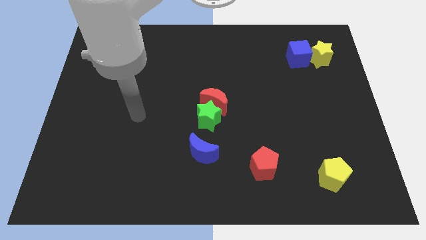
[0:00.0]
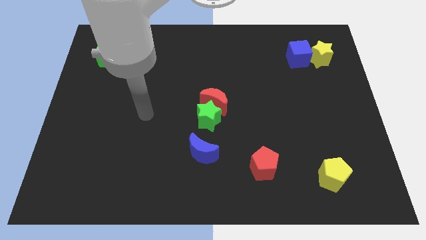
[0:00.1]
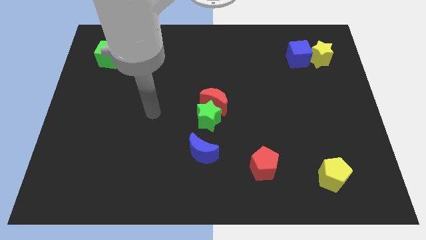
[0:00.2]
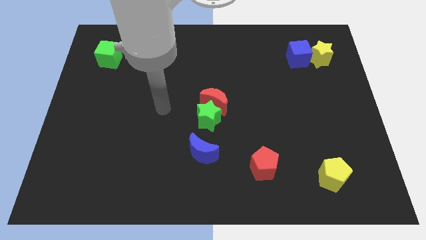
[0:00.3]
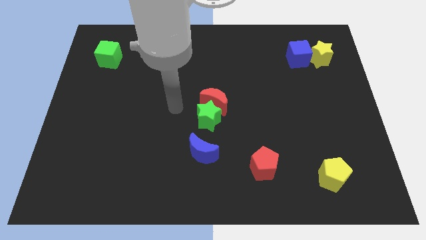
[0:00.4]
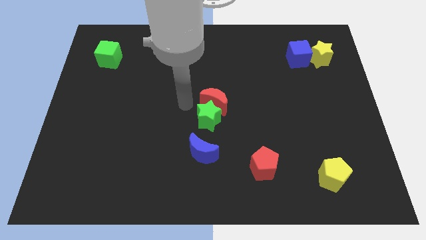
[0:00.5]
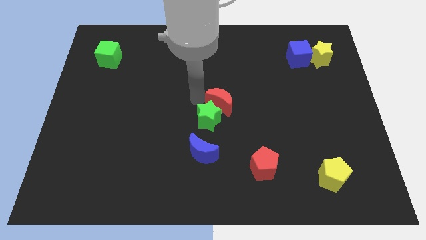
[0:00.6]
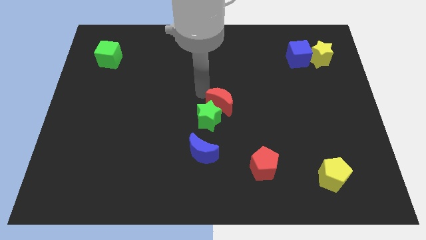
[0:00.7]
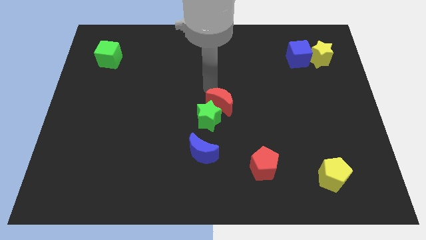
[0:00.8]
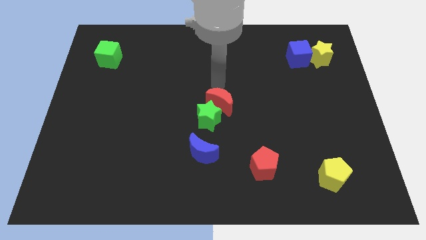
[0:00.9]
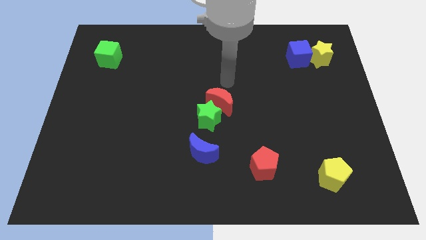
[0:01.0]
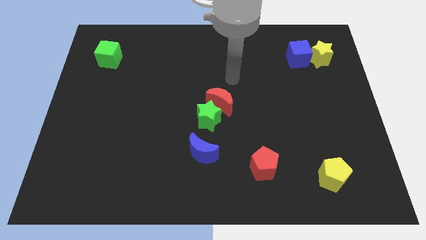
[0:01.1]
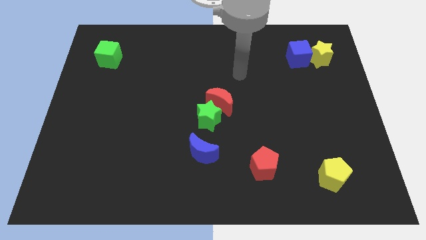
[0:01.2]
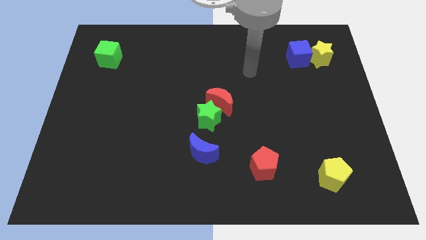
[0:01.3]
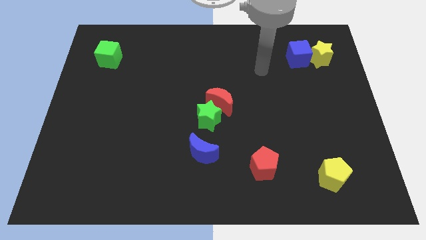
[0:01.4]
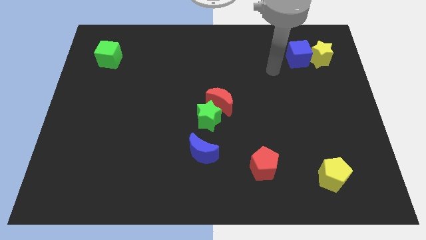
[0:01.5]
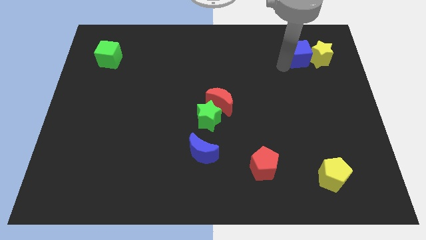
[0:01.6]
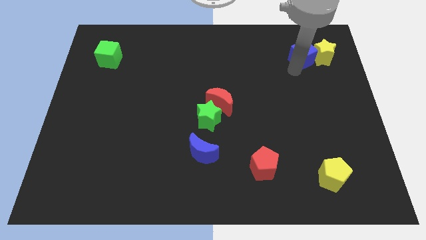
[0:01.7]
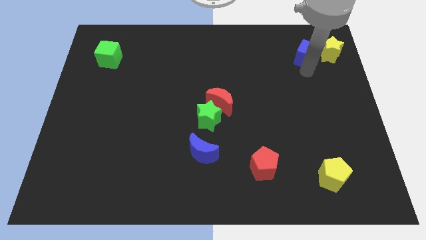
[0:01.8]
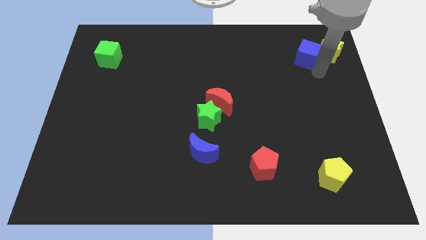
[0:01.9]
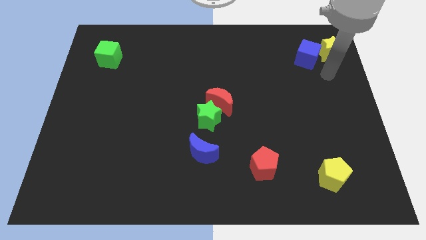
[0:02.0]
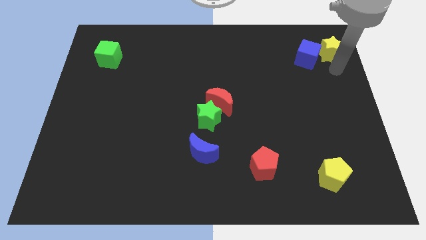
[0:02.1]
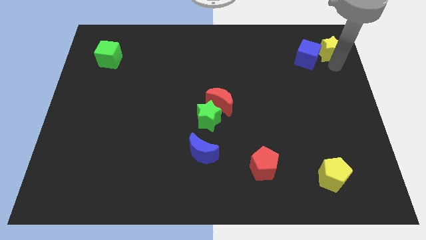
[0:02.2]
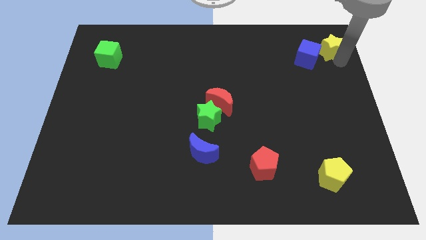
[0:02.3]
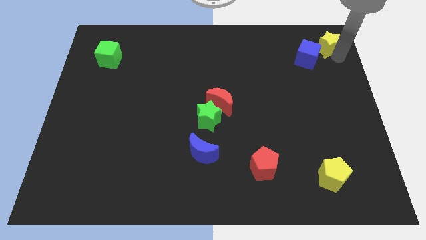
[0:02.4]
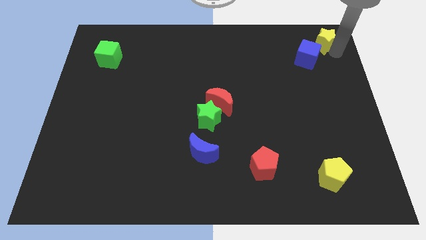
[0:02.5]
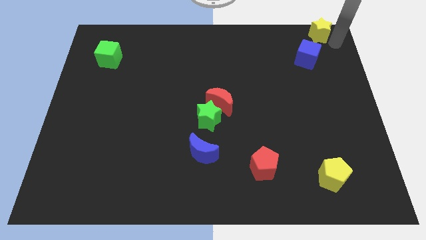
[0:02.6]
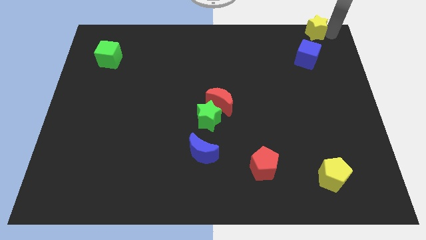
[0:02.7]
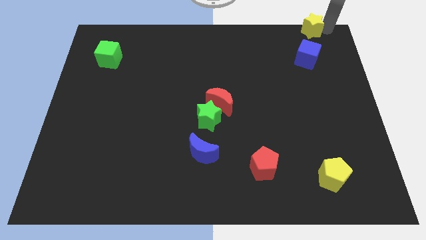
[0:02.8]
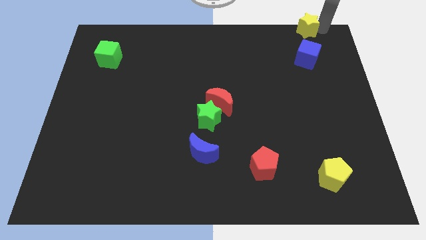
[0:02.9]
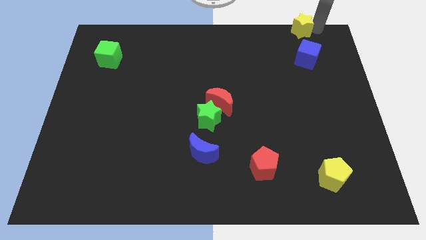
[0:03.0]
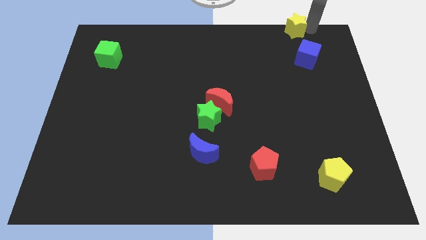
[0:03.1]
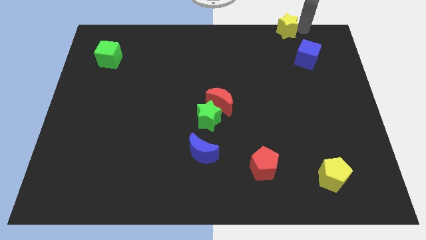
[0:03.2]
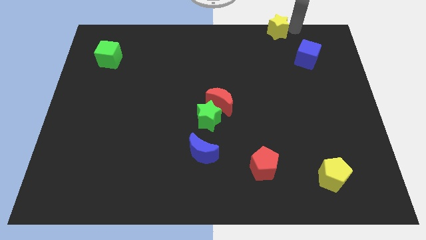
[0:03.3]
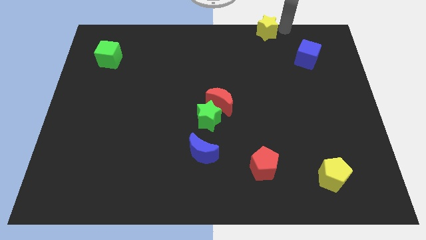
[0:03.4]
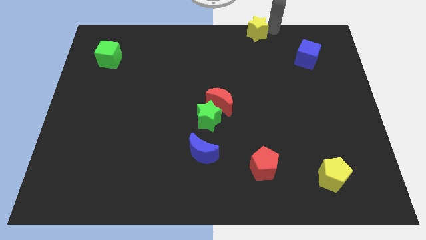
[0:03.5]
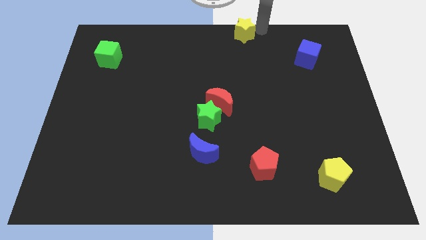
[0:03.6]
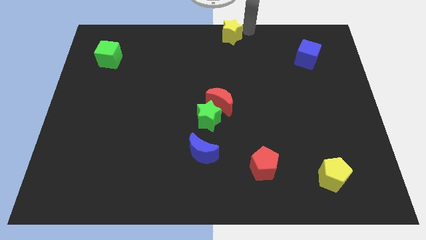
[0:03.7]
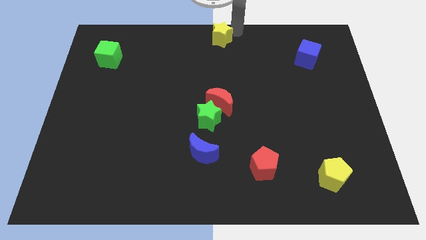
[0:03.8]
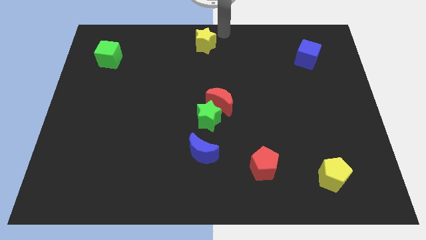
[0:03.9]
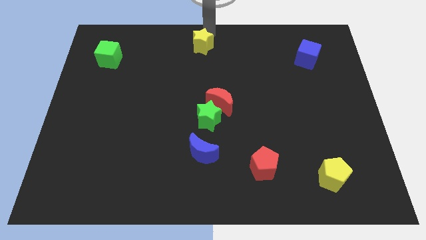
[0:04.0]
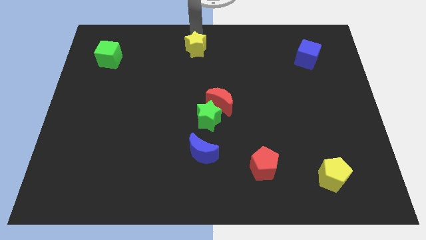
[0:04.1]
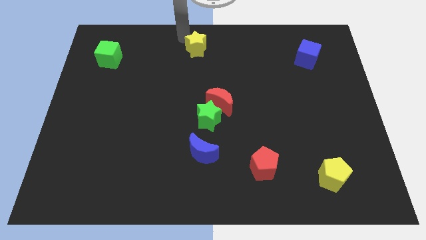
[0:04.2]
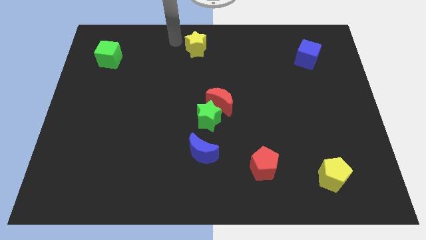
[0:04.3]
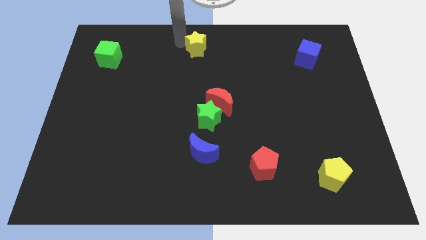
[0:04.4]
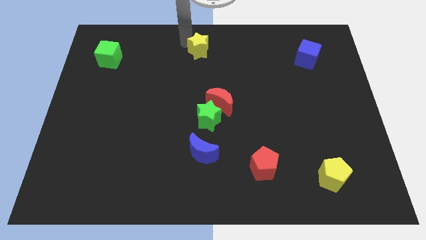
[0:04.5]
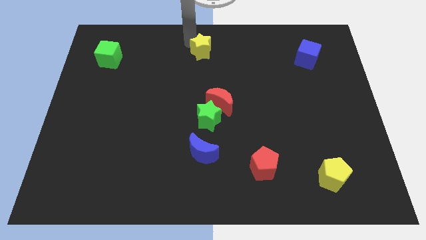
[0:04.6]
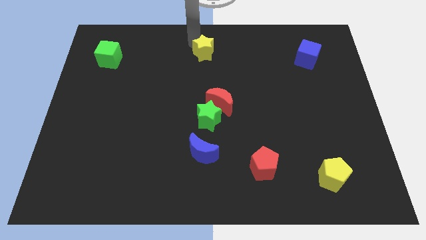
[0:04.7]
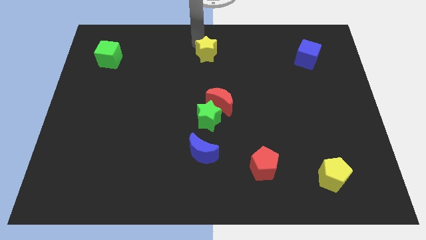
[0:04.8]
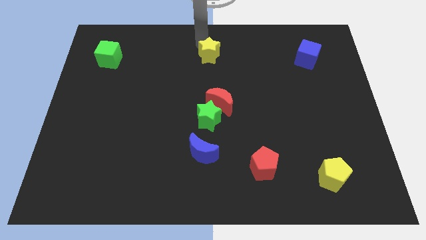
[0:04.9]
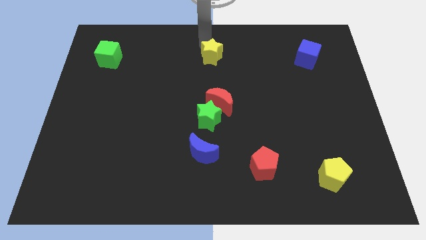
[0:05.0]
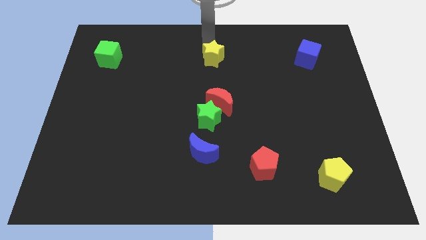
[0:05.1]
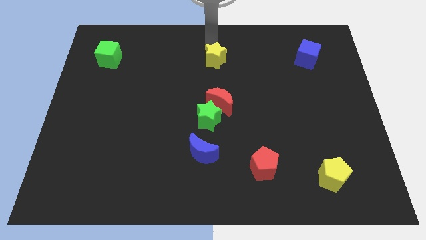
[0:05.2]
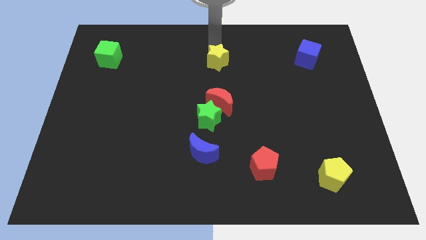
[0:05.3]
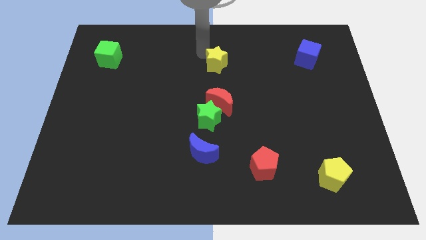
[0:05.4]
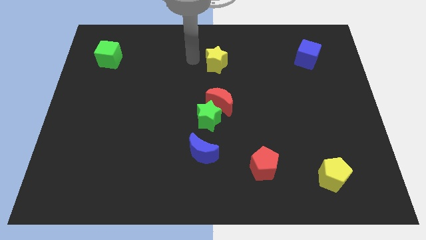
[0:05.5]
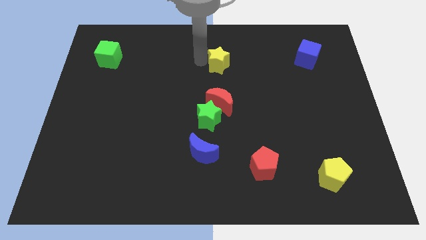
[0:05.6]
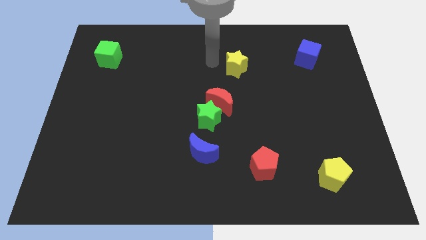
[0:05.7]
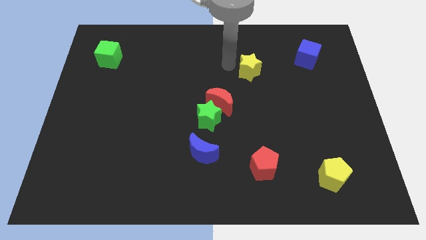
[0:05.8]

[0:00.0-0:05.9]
move the yellow star down and to the left a bit

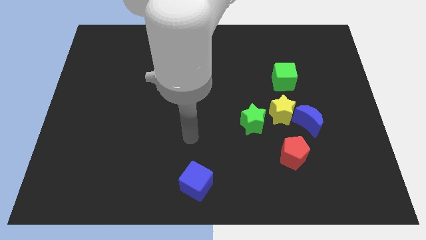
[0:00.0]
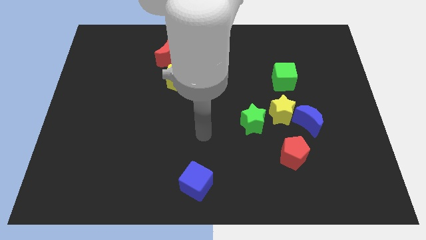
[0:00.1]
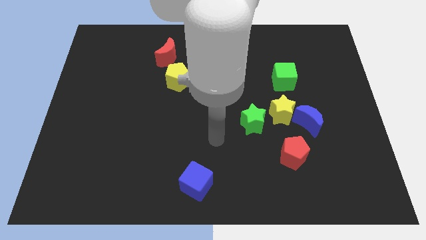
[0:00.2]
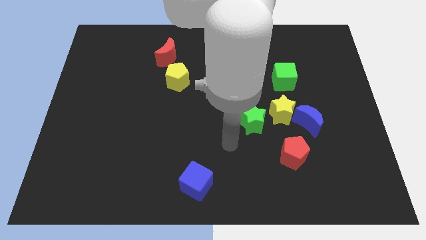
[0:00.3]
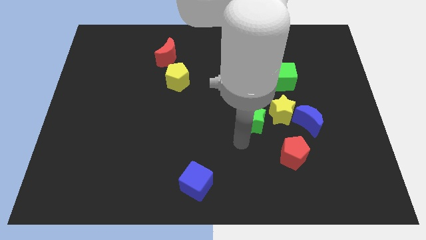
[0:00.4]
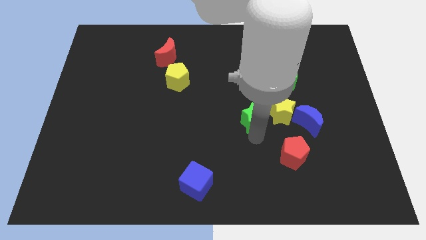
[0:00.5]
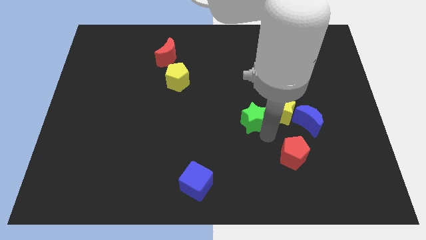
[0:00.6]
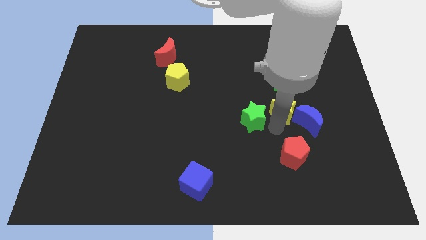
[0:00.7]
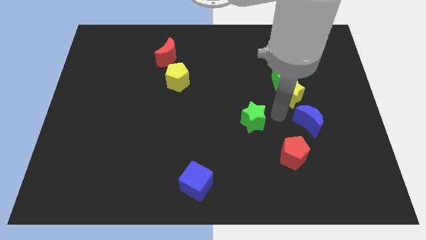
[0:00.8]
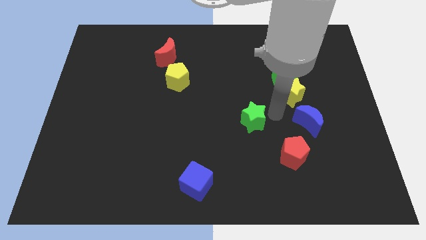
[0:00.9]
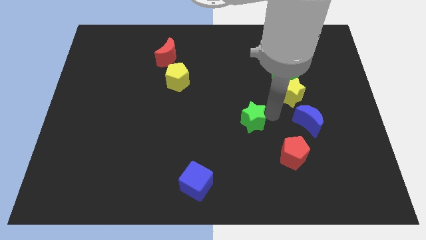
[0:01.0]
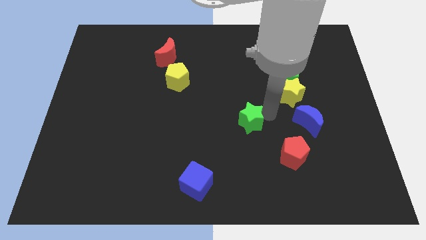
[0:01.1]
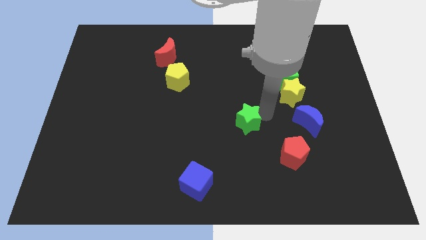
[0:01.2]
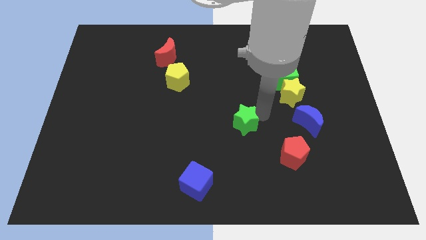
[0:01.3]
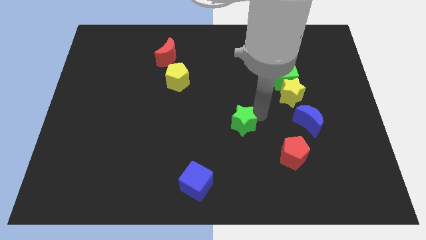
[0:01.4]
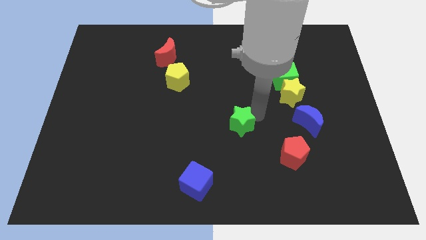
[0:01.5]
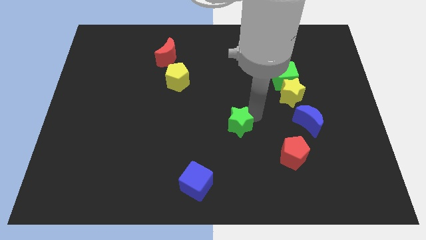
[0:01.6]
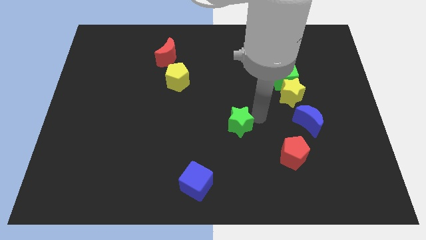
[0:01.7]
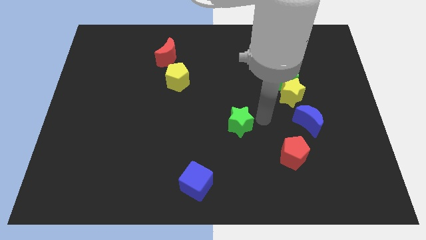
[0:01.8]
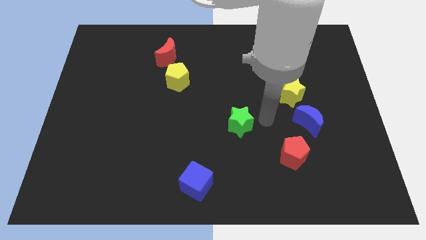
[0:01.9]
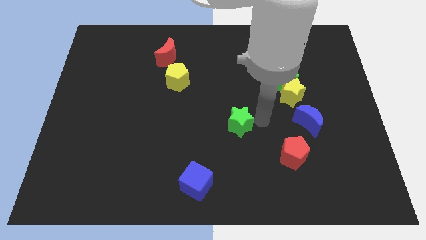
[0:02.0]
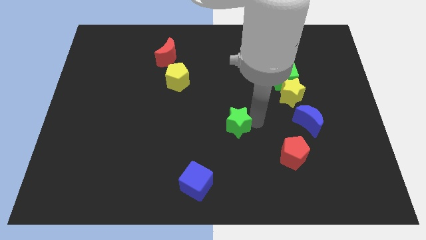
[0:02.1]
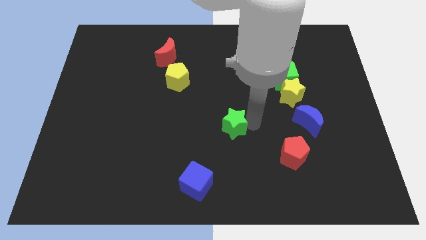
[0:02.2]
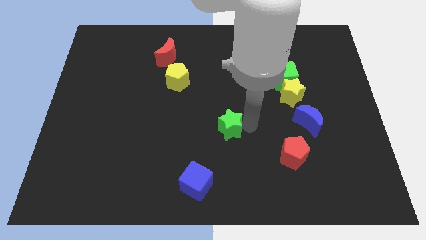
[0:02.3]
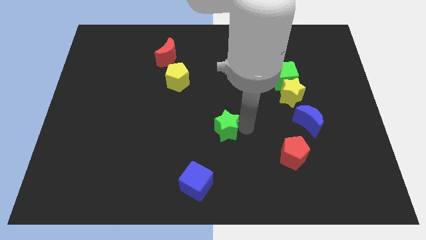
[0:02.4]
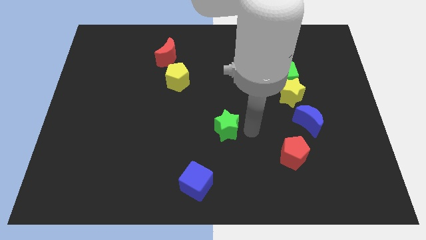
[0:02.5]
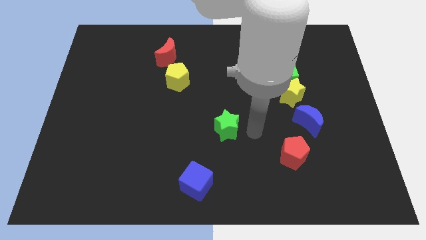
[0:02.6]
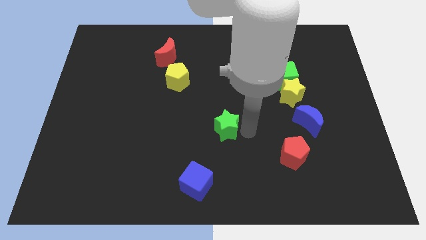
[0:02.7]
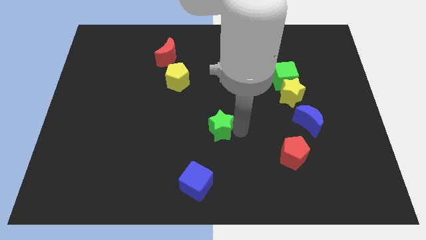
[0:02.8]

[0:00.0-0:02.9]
slide the green star a bit to the left
